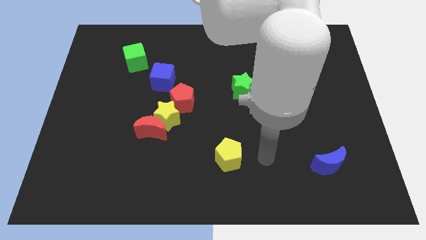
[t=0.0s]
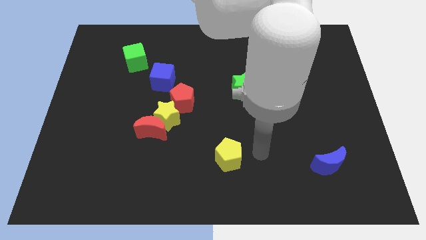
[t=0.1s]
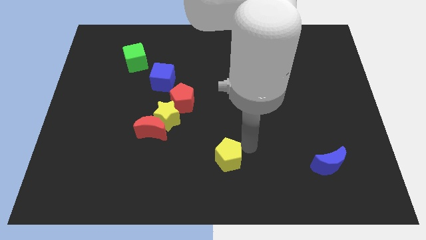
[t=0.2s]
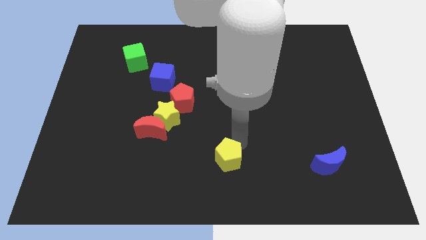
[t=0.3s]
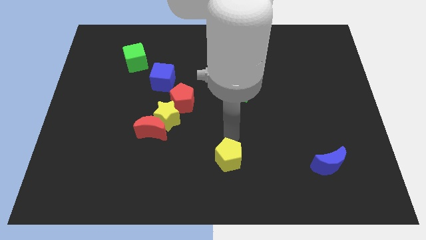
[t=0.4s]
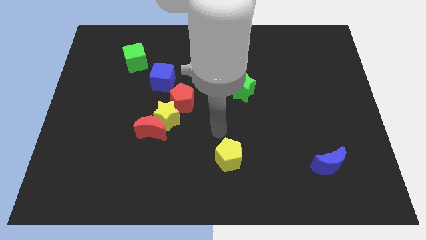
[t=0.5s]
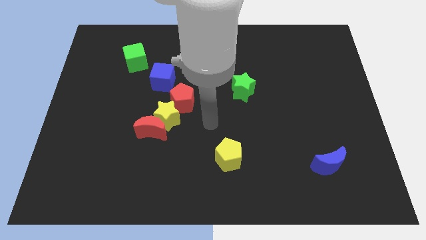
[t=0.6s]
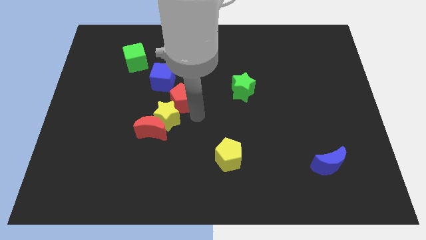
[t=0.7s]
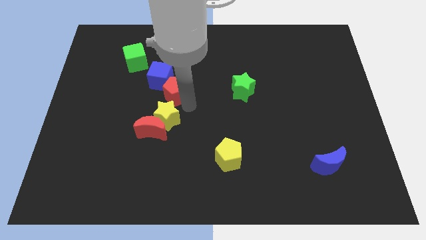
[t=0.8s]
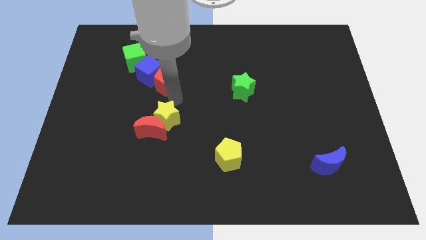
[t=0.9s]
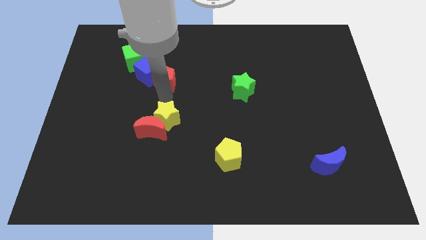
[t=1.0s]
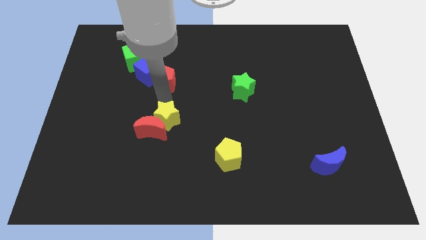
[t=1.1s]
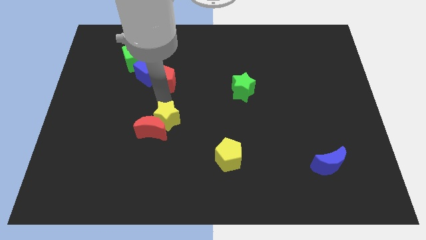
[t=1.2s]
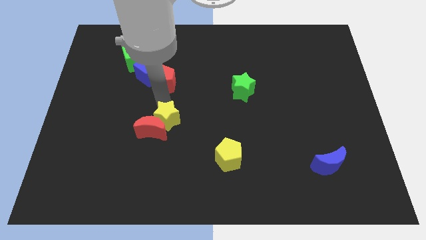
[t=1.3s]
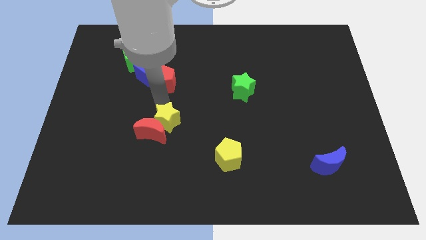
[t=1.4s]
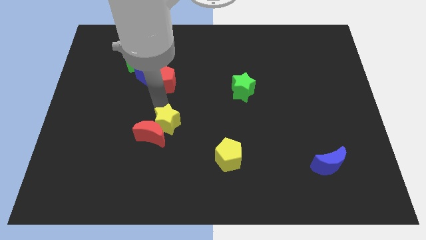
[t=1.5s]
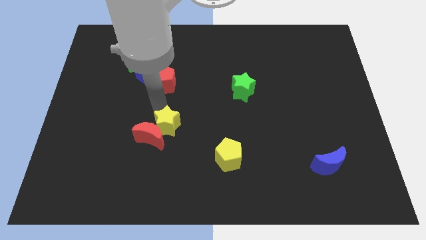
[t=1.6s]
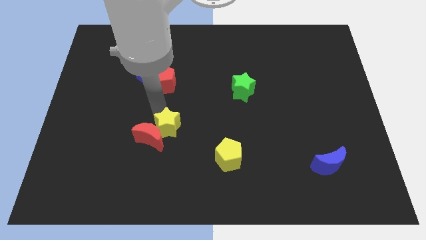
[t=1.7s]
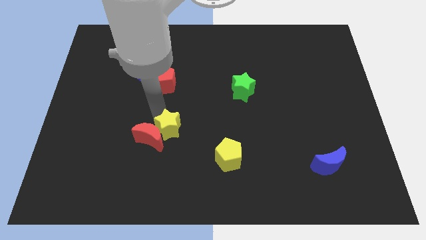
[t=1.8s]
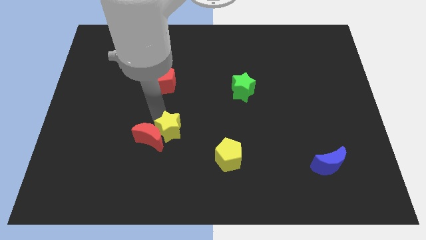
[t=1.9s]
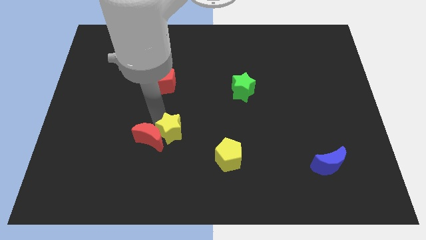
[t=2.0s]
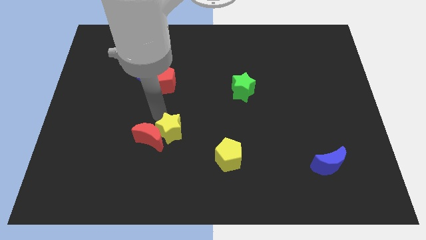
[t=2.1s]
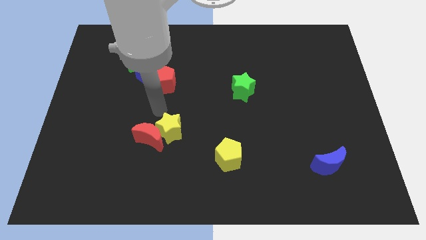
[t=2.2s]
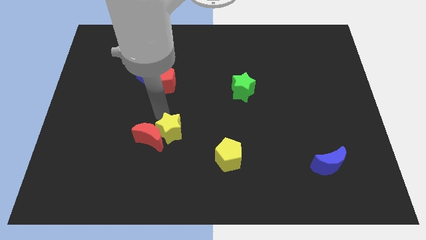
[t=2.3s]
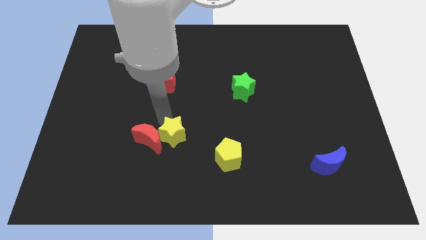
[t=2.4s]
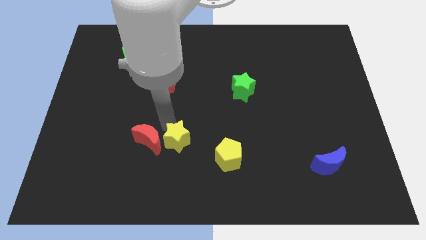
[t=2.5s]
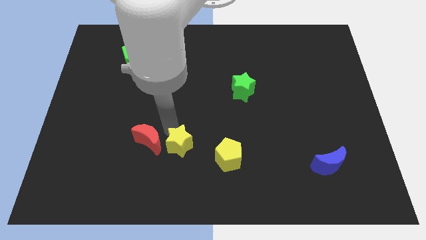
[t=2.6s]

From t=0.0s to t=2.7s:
move the yellow star away from the red moon and red pentagon

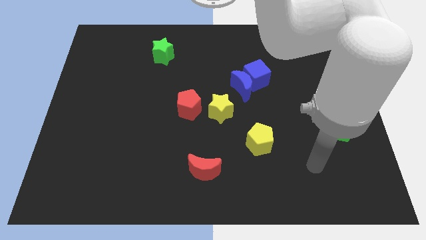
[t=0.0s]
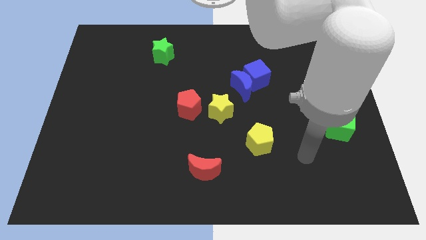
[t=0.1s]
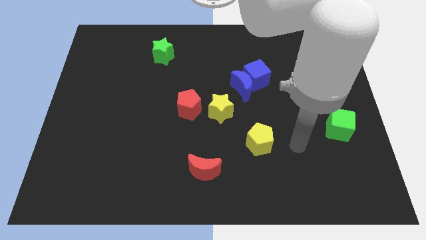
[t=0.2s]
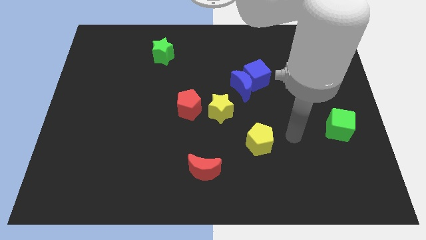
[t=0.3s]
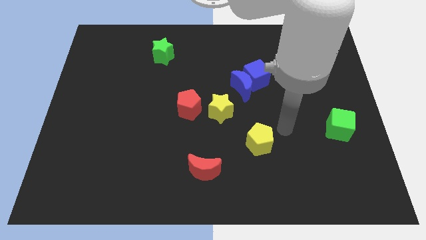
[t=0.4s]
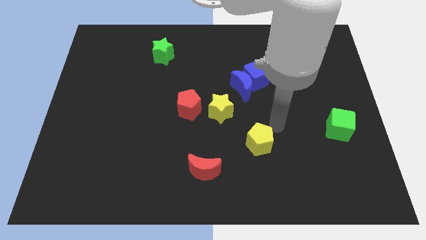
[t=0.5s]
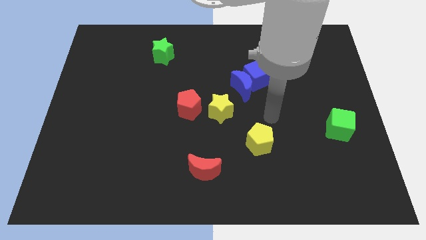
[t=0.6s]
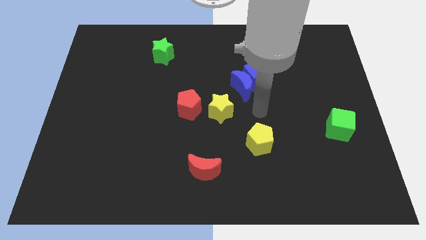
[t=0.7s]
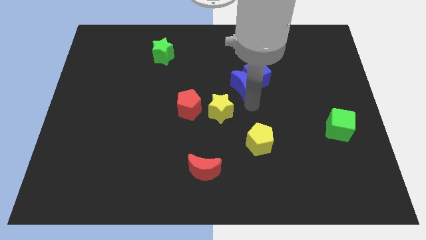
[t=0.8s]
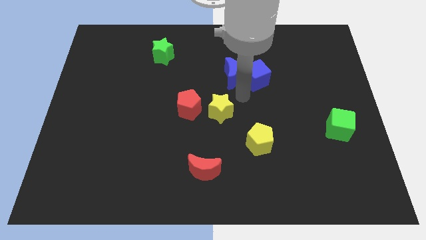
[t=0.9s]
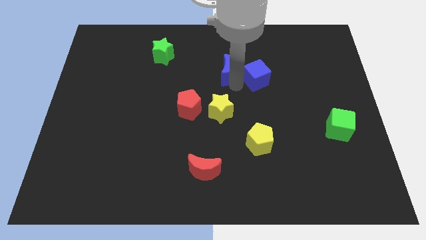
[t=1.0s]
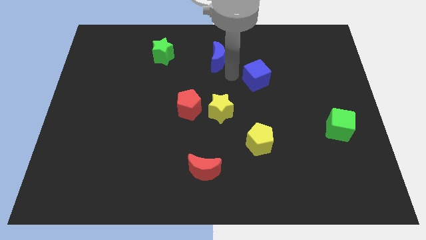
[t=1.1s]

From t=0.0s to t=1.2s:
separate the blue cube from the blue moon

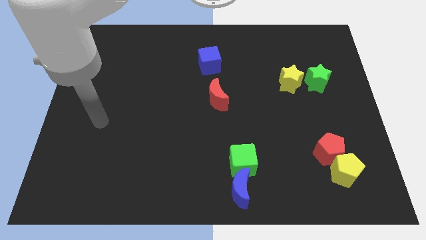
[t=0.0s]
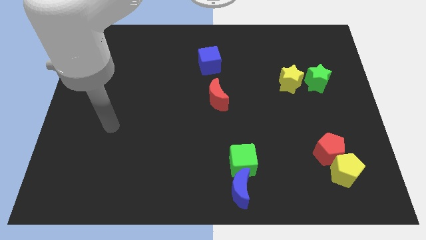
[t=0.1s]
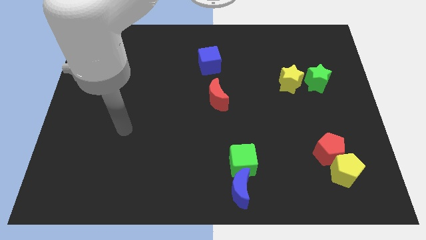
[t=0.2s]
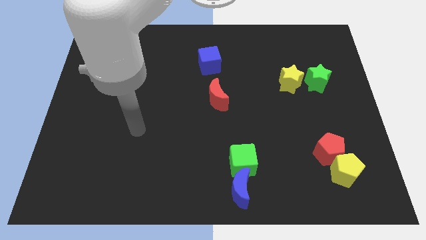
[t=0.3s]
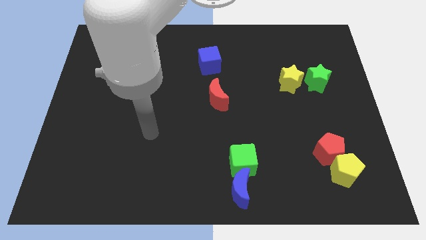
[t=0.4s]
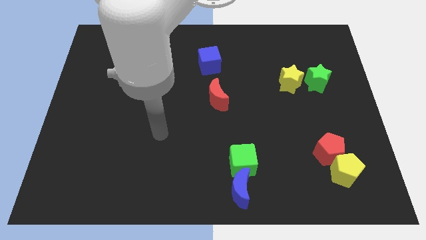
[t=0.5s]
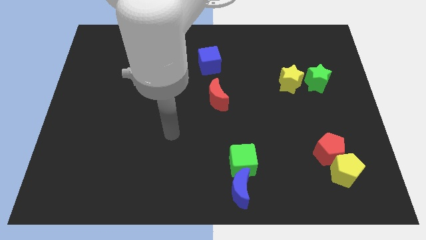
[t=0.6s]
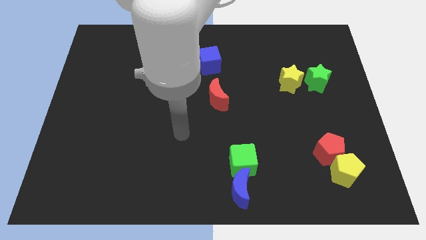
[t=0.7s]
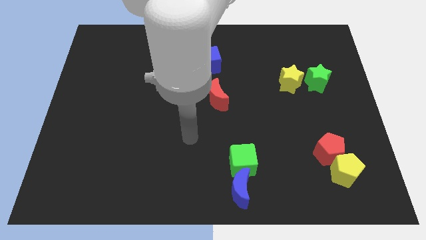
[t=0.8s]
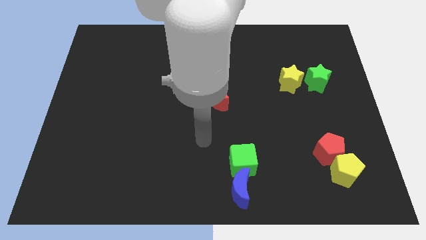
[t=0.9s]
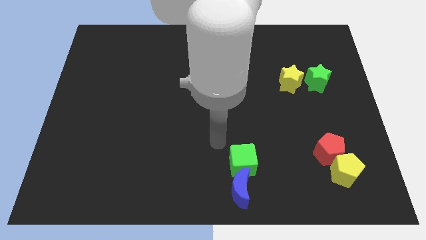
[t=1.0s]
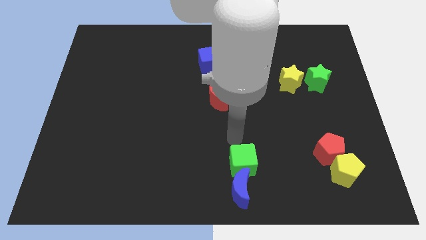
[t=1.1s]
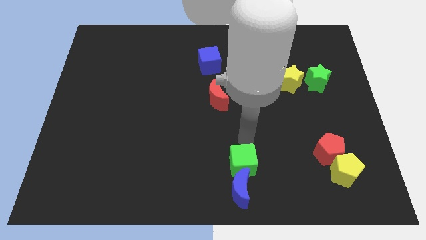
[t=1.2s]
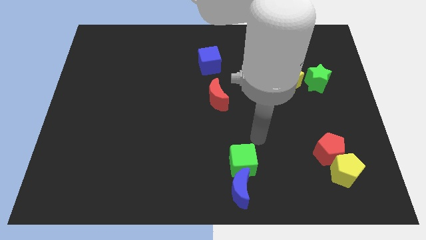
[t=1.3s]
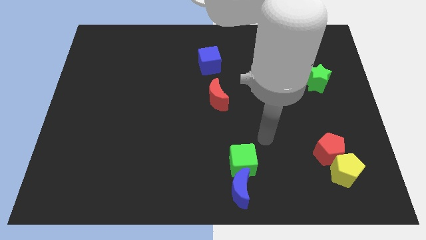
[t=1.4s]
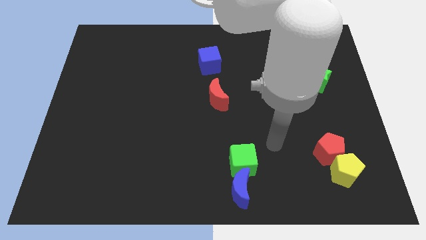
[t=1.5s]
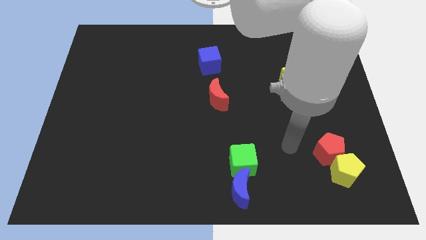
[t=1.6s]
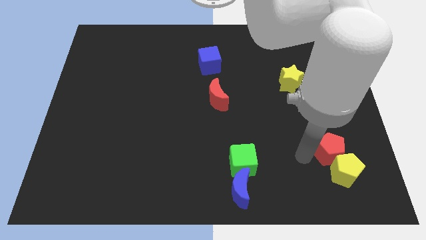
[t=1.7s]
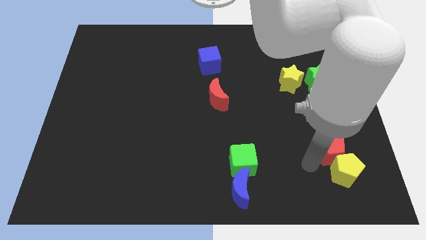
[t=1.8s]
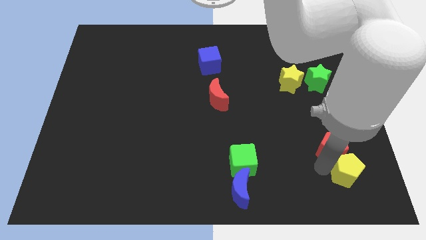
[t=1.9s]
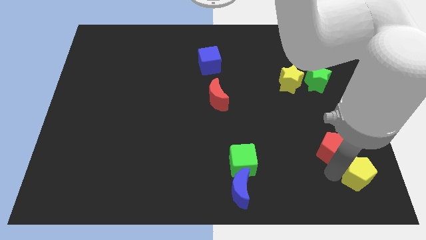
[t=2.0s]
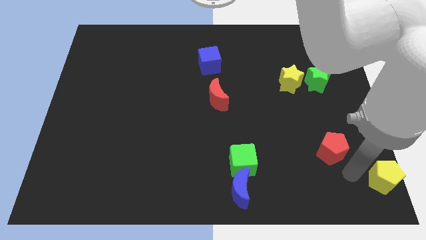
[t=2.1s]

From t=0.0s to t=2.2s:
move the red pentagon away from the yellow pentagon

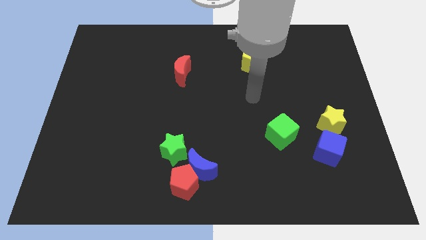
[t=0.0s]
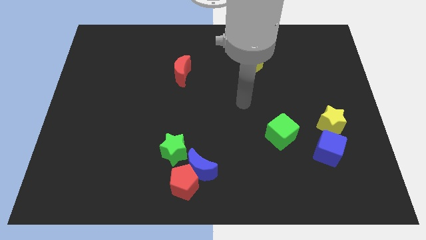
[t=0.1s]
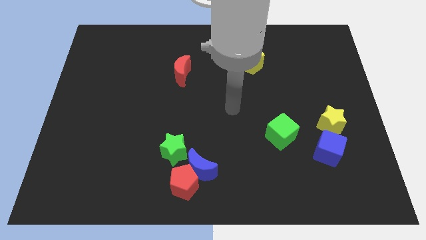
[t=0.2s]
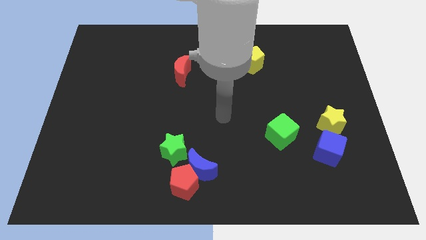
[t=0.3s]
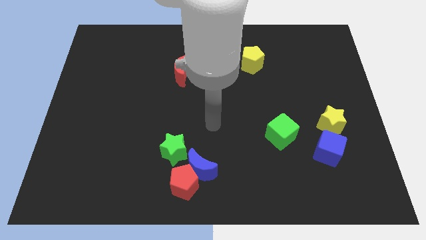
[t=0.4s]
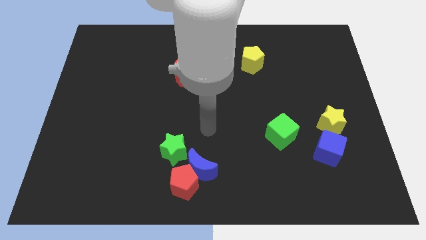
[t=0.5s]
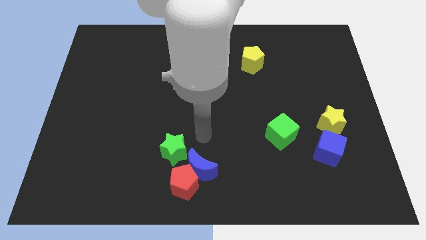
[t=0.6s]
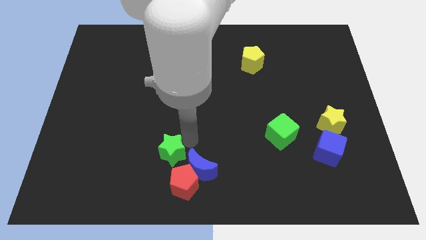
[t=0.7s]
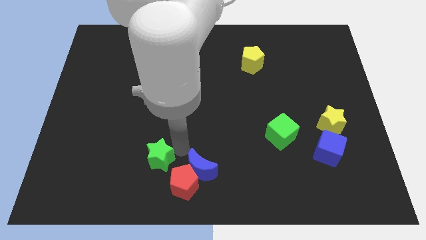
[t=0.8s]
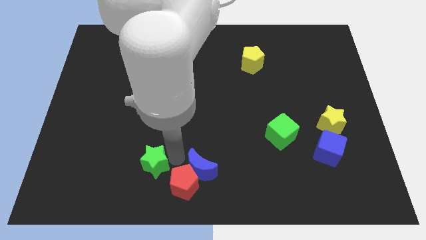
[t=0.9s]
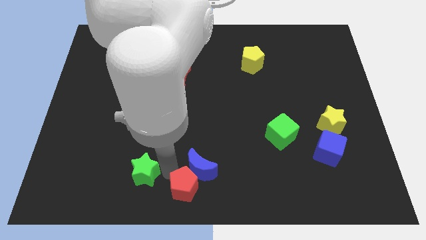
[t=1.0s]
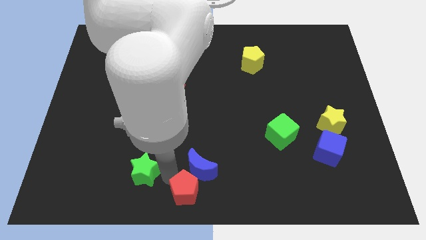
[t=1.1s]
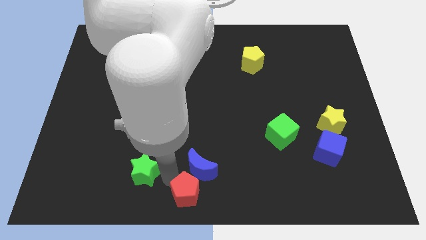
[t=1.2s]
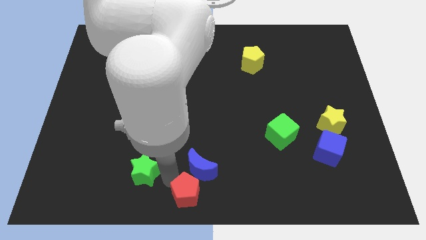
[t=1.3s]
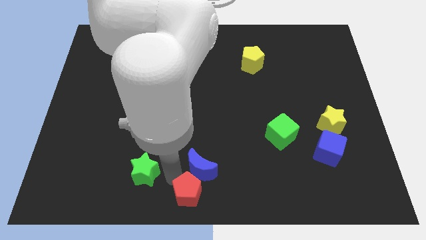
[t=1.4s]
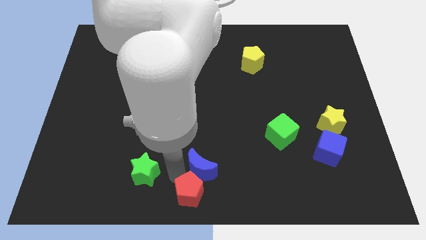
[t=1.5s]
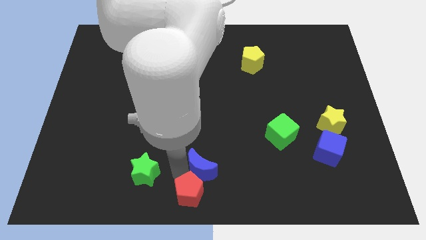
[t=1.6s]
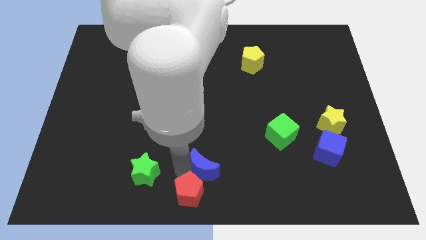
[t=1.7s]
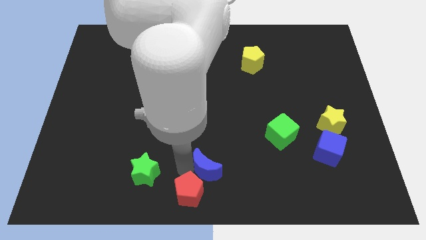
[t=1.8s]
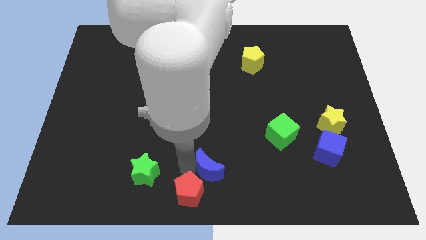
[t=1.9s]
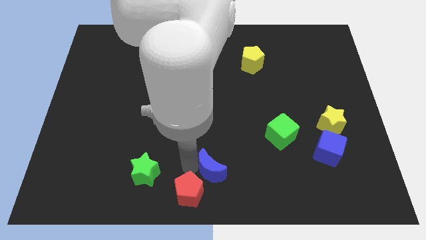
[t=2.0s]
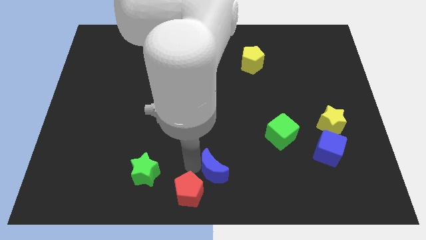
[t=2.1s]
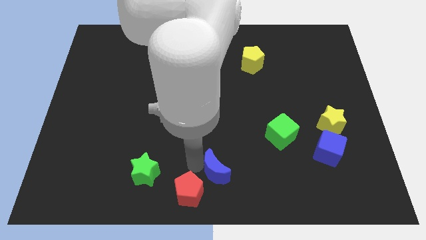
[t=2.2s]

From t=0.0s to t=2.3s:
move the blue moon away from the red pentagon and green star

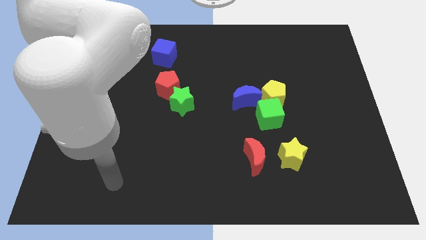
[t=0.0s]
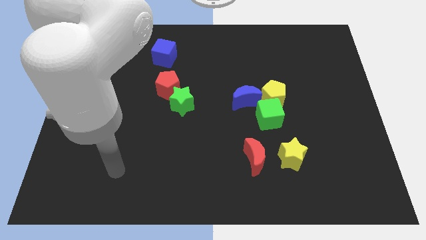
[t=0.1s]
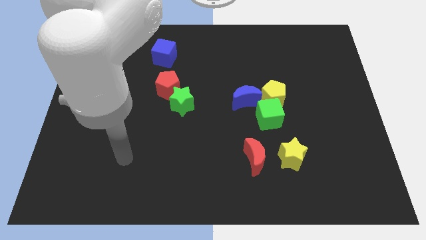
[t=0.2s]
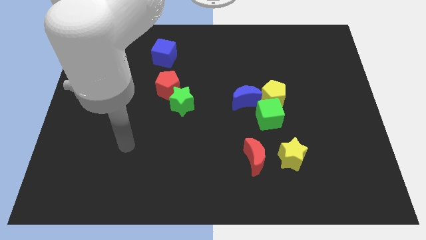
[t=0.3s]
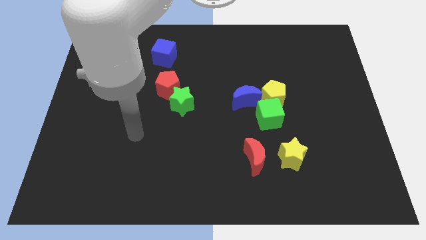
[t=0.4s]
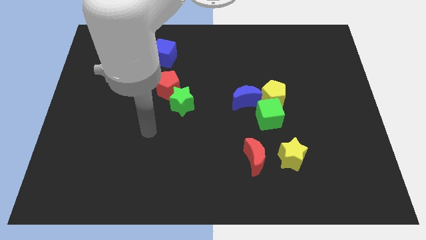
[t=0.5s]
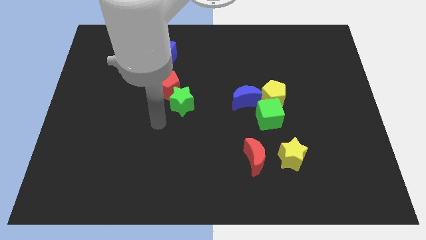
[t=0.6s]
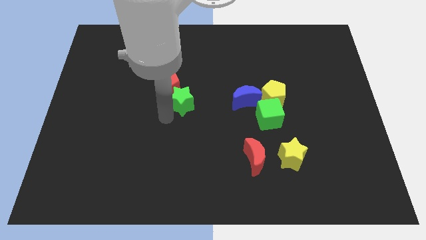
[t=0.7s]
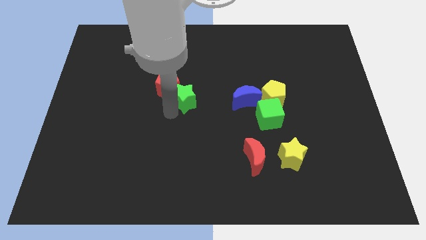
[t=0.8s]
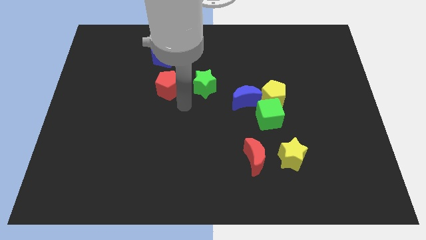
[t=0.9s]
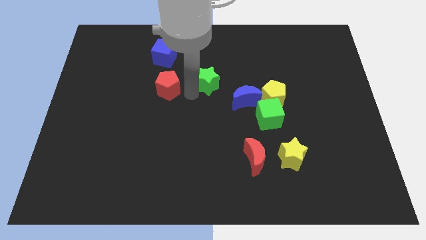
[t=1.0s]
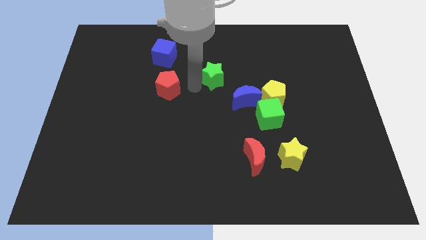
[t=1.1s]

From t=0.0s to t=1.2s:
pull the red pentagon apart from the green star
